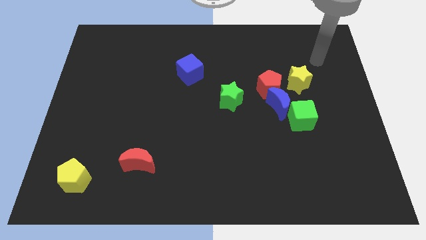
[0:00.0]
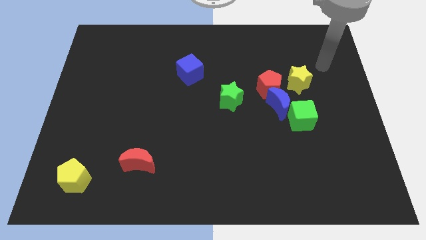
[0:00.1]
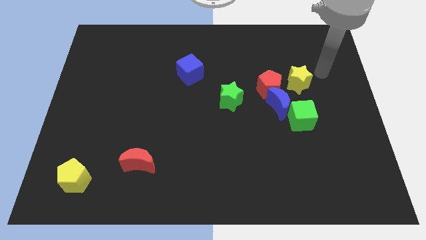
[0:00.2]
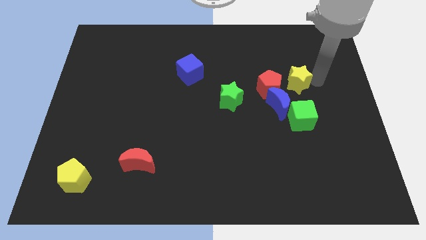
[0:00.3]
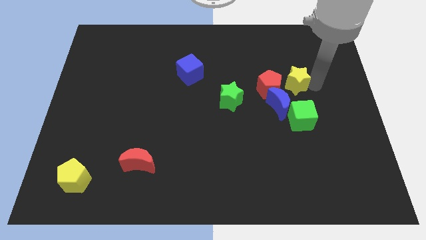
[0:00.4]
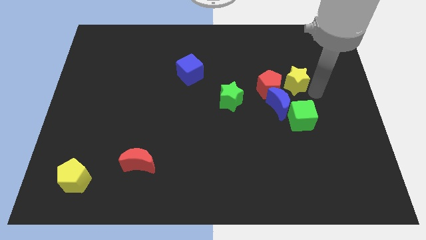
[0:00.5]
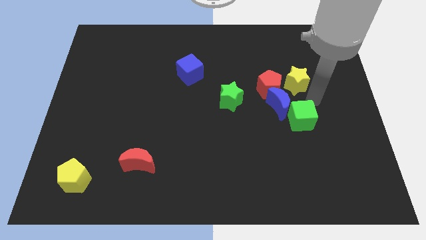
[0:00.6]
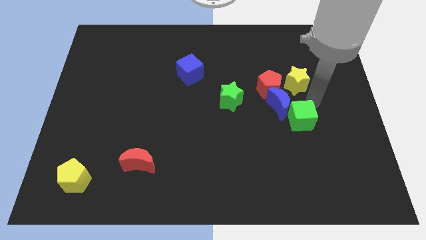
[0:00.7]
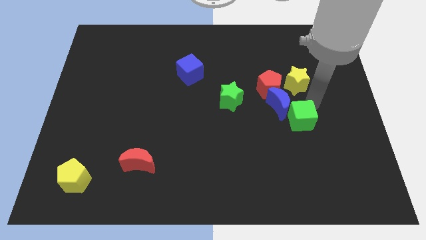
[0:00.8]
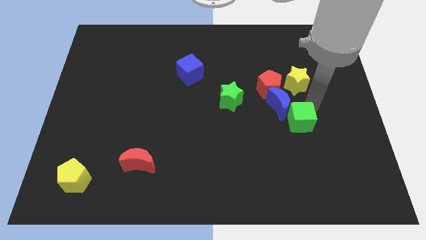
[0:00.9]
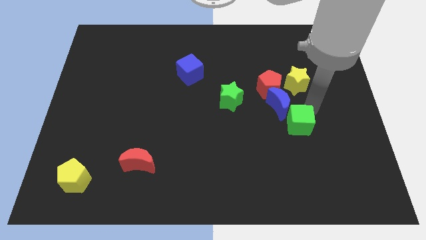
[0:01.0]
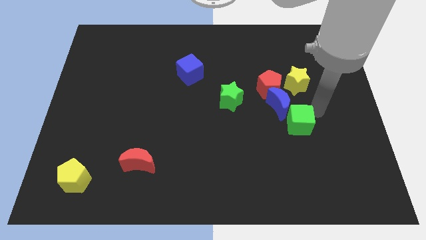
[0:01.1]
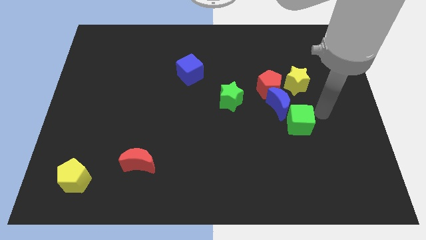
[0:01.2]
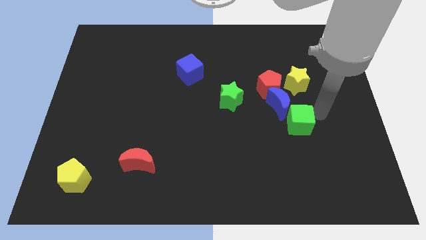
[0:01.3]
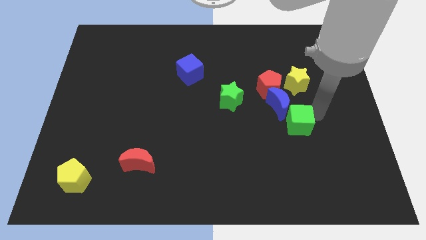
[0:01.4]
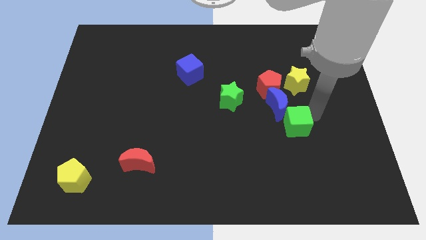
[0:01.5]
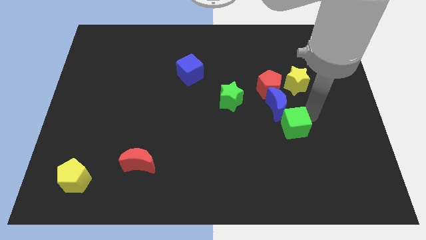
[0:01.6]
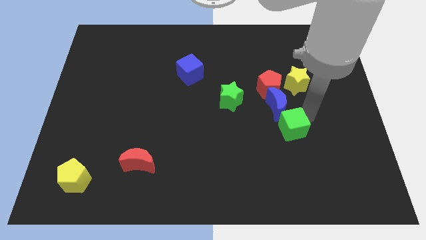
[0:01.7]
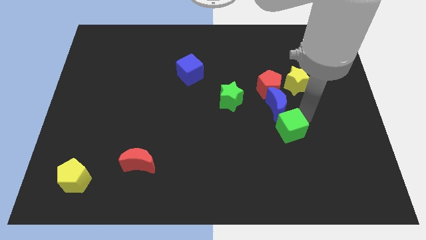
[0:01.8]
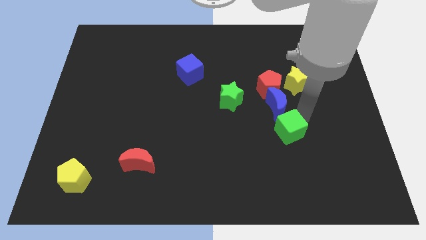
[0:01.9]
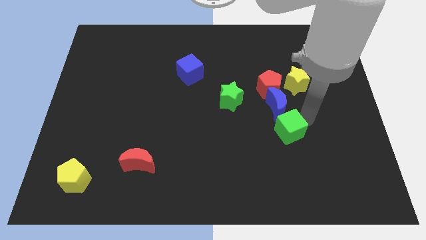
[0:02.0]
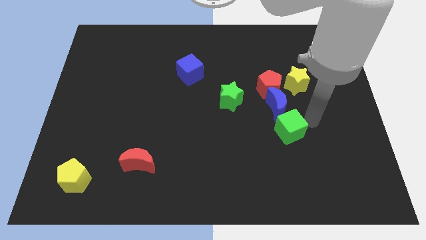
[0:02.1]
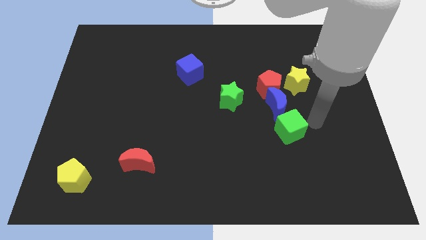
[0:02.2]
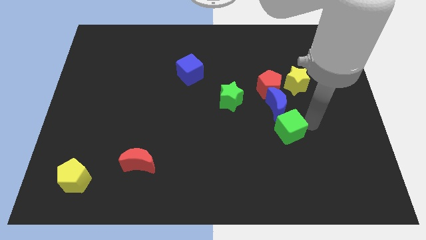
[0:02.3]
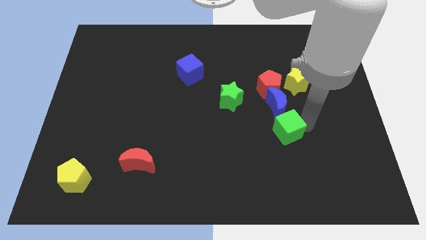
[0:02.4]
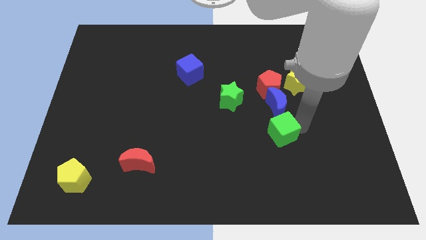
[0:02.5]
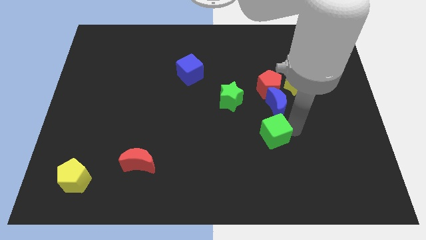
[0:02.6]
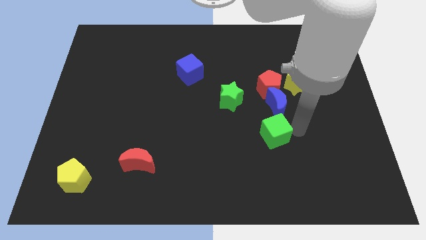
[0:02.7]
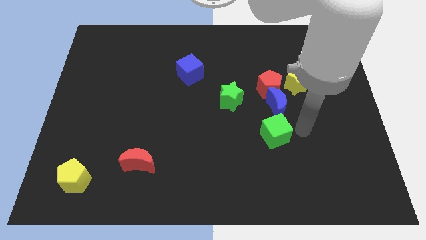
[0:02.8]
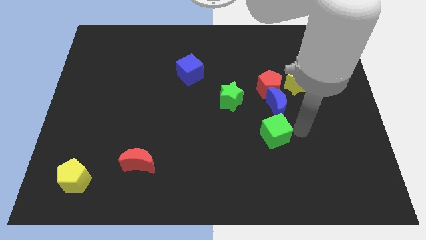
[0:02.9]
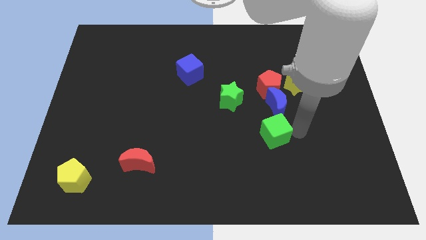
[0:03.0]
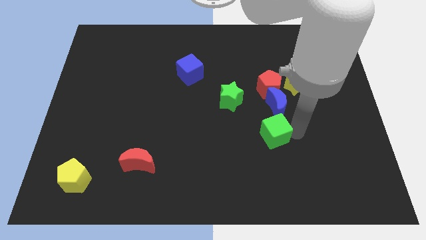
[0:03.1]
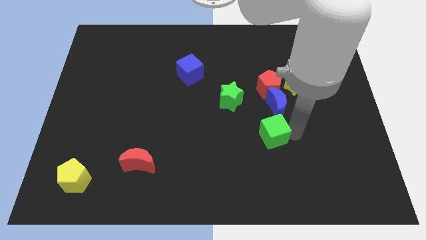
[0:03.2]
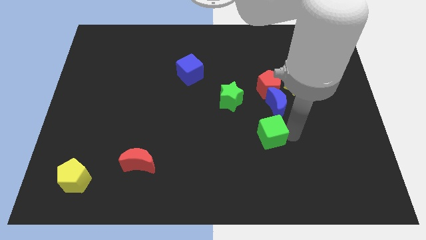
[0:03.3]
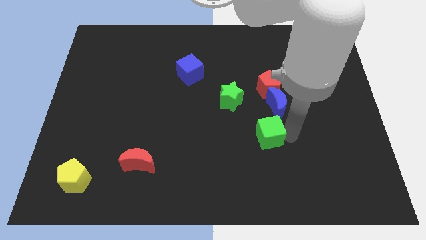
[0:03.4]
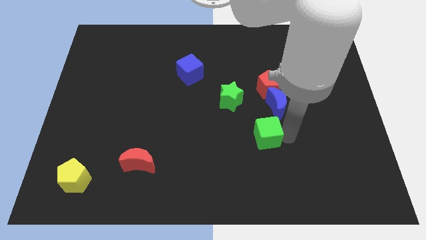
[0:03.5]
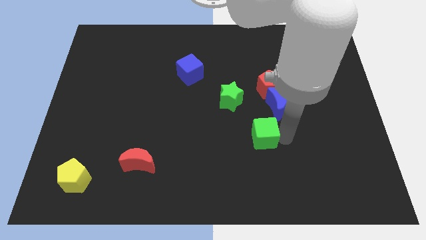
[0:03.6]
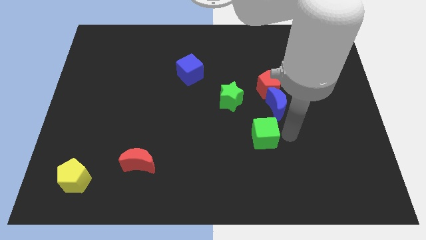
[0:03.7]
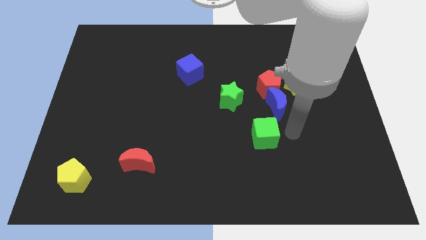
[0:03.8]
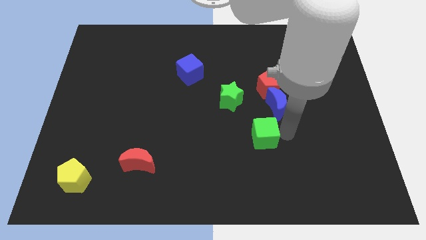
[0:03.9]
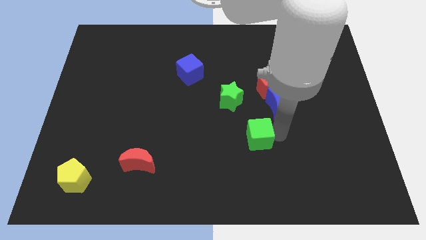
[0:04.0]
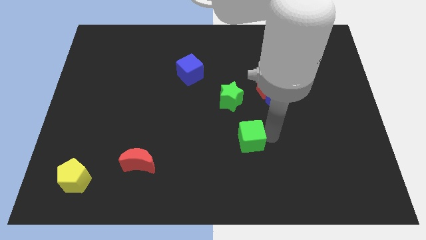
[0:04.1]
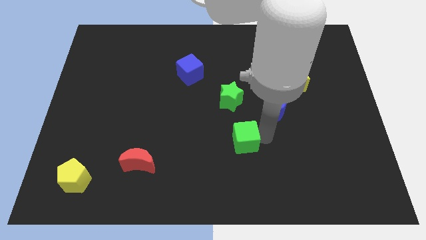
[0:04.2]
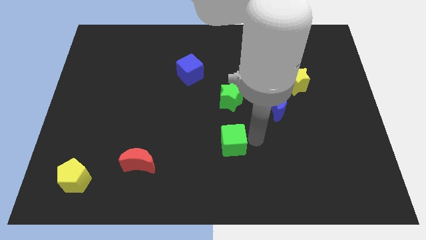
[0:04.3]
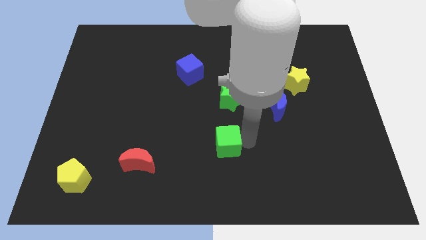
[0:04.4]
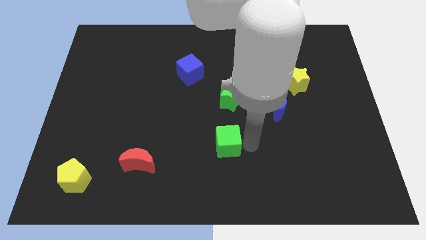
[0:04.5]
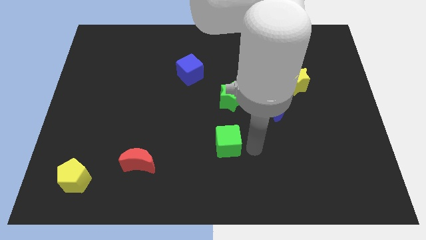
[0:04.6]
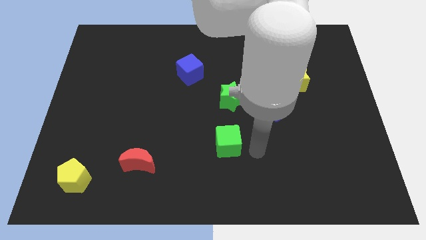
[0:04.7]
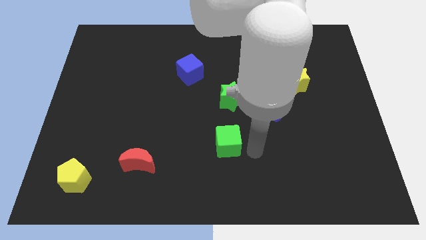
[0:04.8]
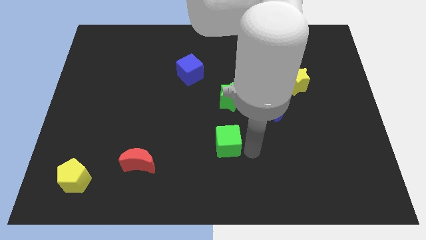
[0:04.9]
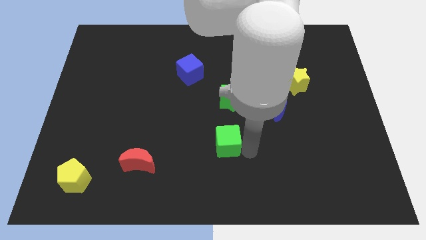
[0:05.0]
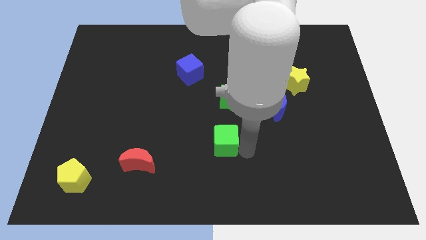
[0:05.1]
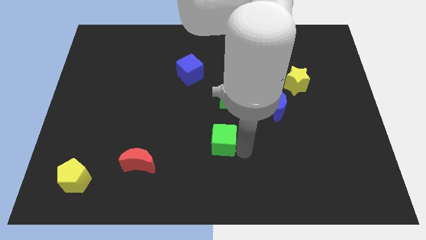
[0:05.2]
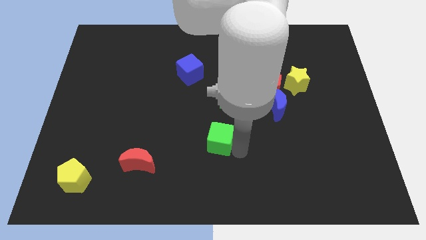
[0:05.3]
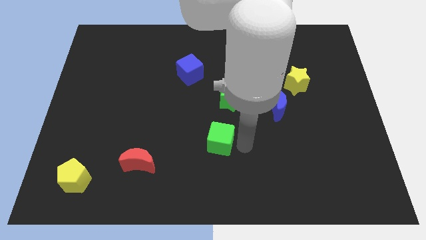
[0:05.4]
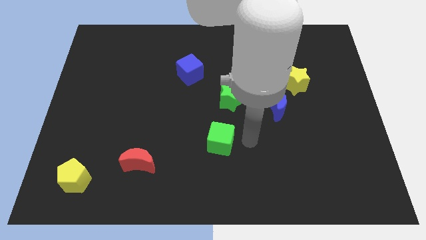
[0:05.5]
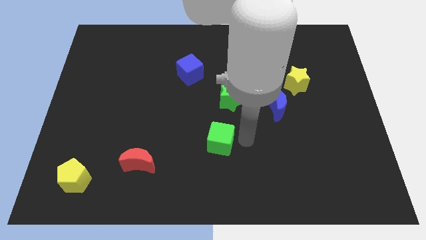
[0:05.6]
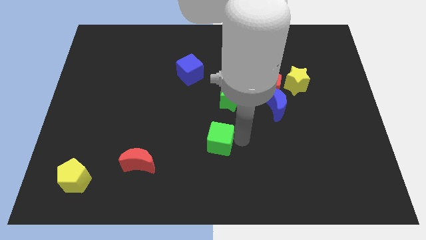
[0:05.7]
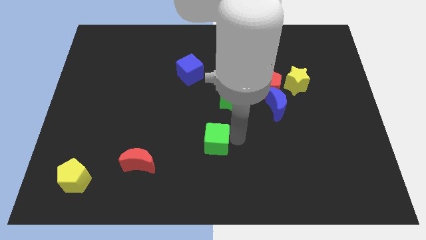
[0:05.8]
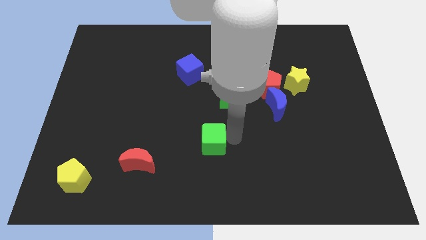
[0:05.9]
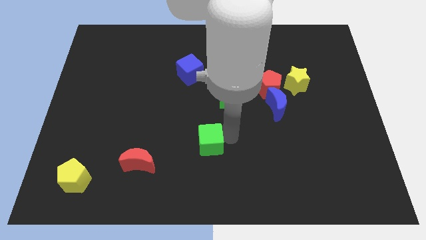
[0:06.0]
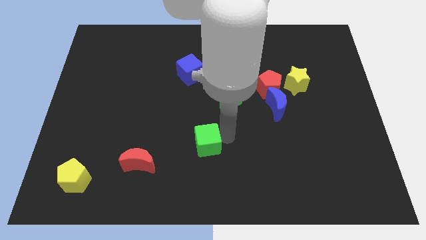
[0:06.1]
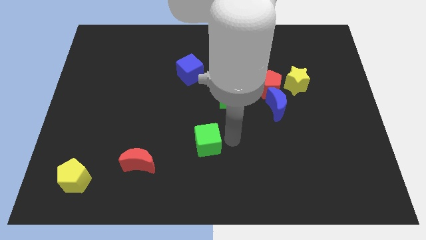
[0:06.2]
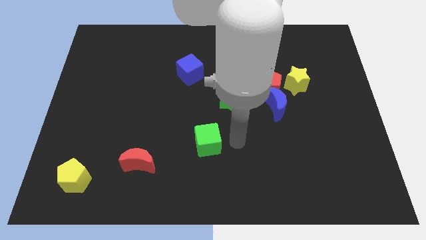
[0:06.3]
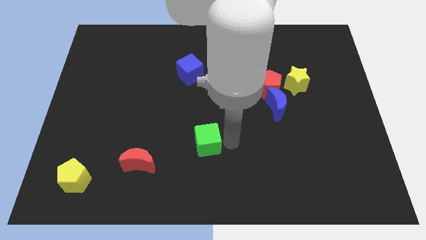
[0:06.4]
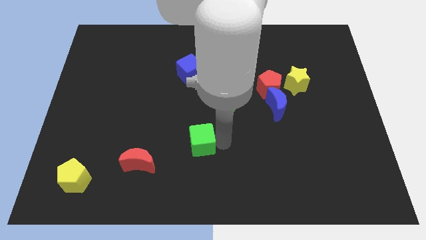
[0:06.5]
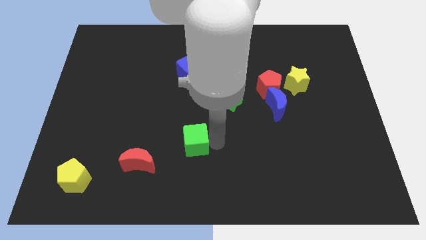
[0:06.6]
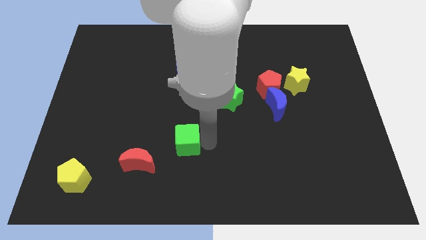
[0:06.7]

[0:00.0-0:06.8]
push the green cube diagonally up and to the right of the red moon
